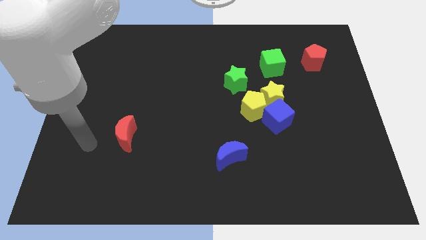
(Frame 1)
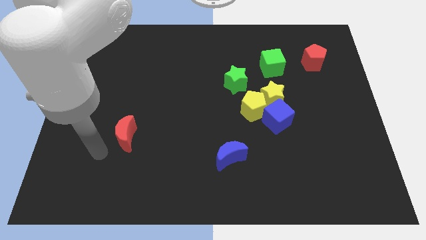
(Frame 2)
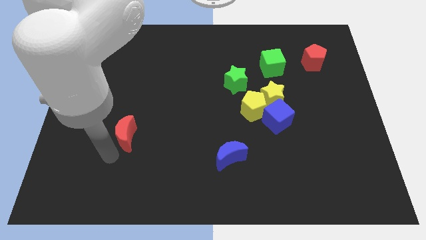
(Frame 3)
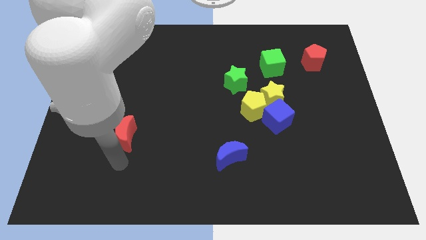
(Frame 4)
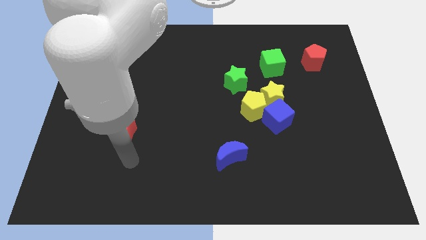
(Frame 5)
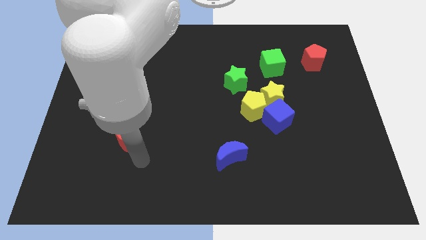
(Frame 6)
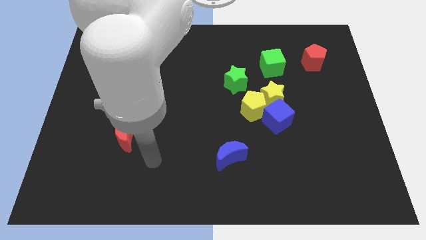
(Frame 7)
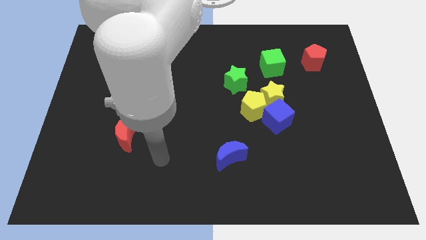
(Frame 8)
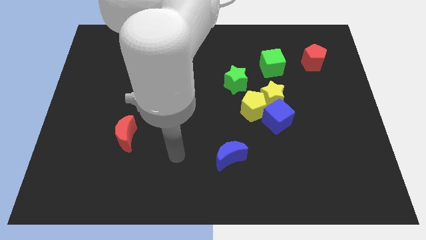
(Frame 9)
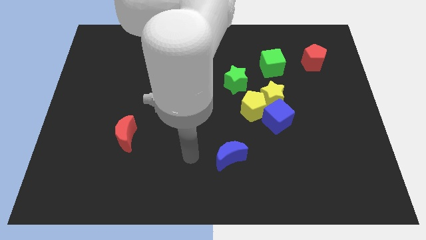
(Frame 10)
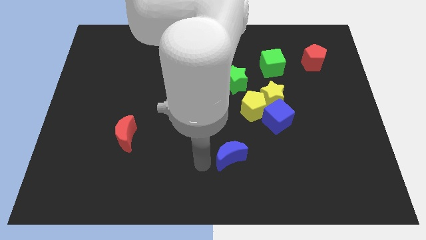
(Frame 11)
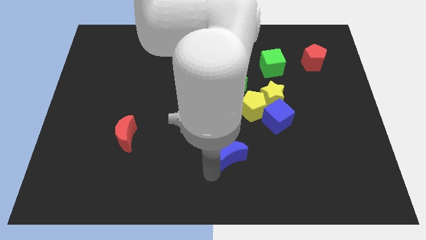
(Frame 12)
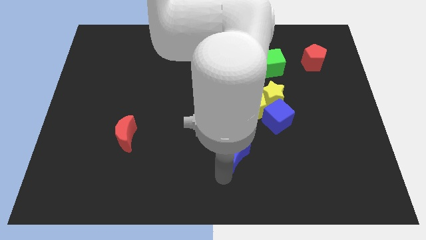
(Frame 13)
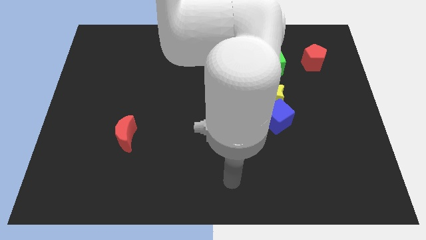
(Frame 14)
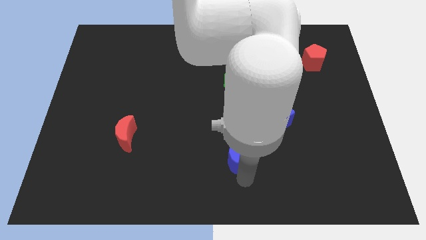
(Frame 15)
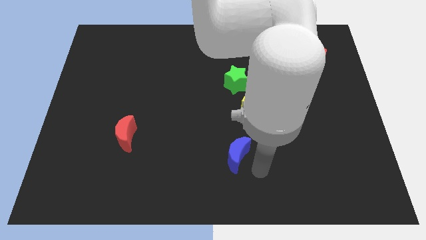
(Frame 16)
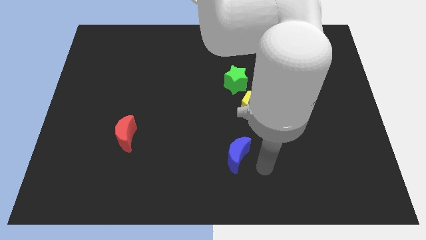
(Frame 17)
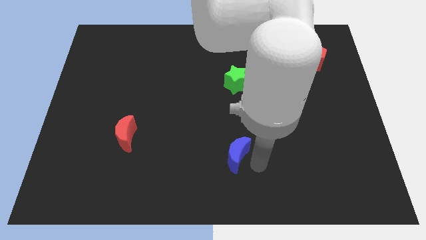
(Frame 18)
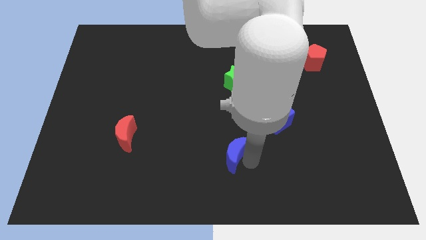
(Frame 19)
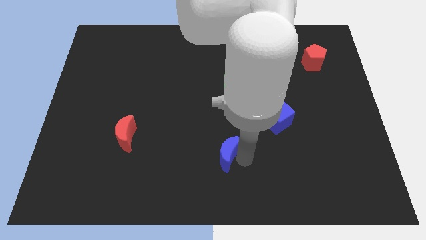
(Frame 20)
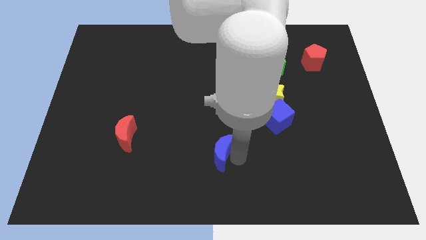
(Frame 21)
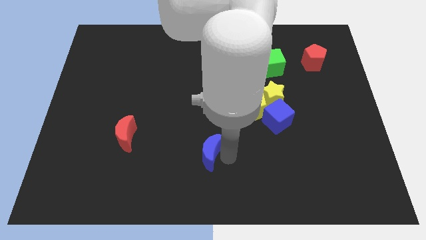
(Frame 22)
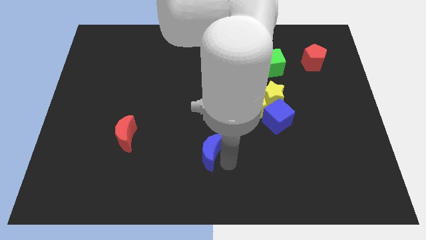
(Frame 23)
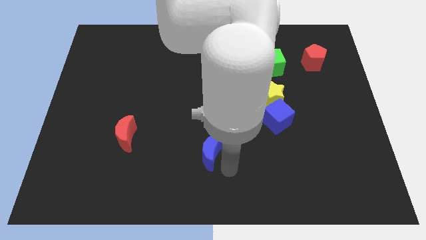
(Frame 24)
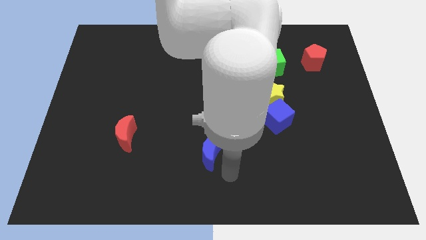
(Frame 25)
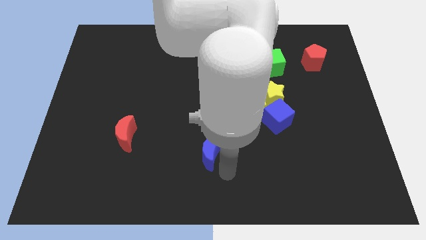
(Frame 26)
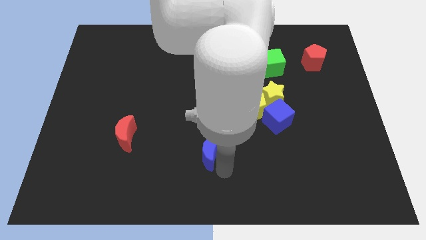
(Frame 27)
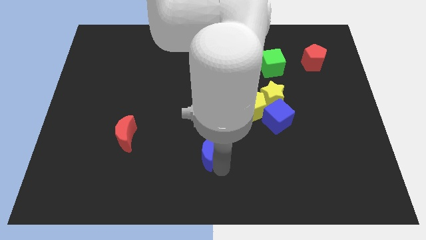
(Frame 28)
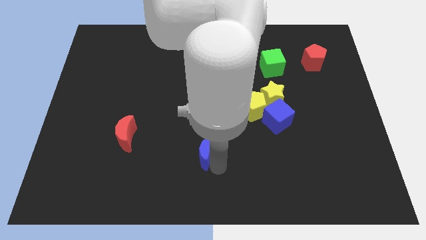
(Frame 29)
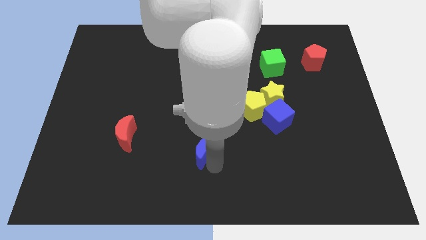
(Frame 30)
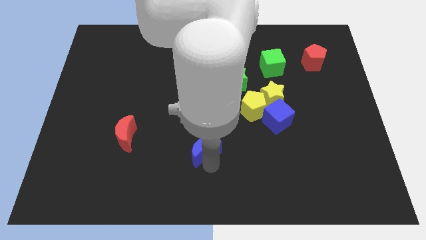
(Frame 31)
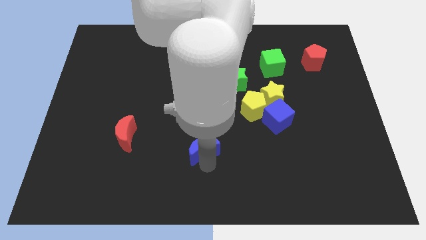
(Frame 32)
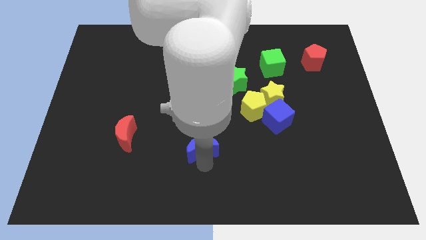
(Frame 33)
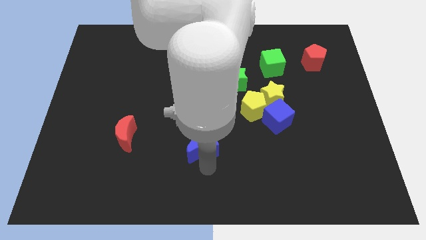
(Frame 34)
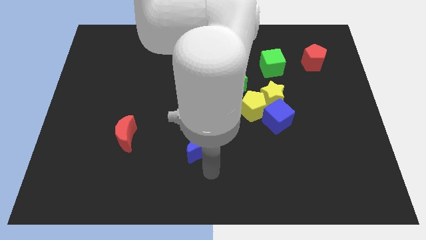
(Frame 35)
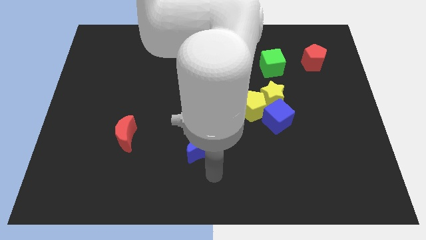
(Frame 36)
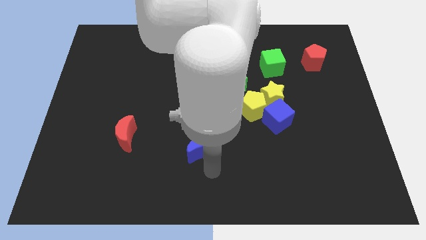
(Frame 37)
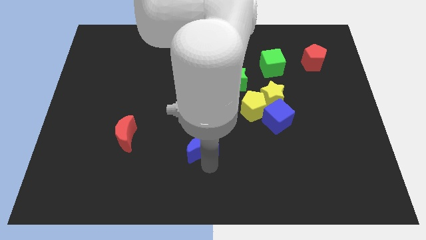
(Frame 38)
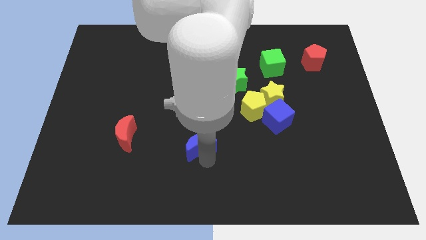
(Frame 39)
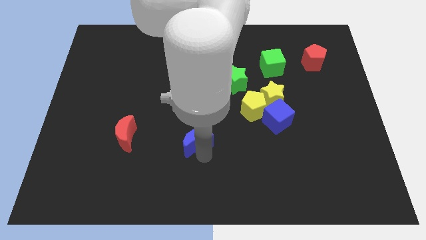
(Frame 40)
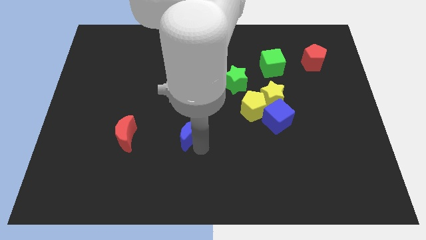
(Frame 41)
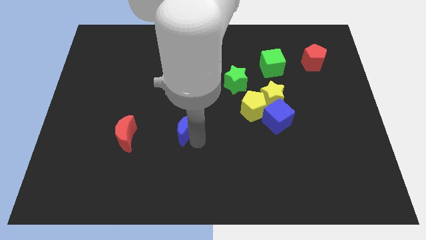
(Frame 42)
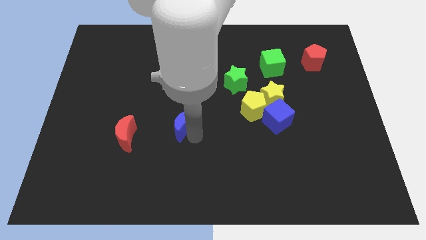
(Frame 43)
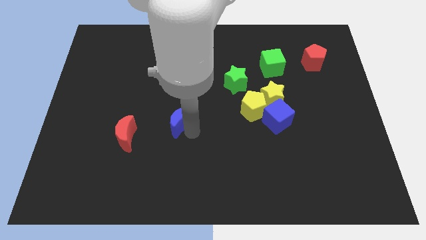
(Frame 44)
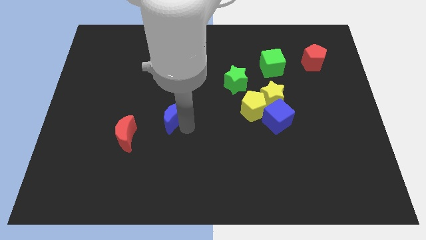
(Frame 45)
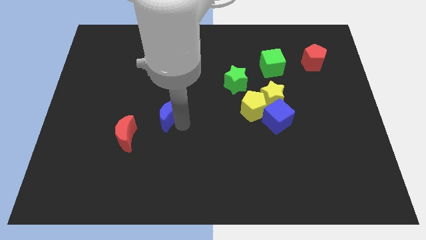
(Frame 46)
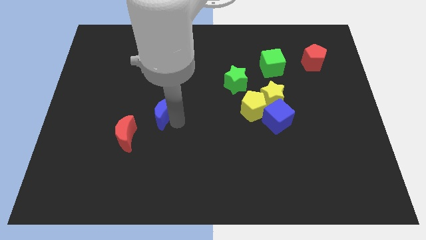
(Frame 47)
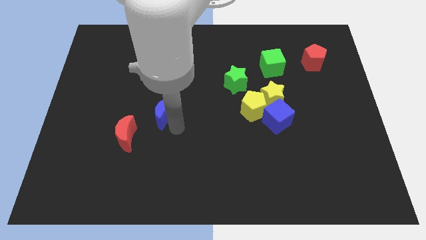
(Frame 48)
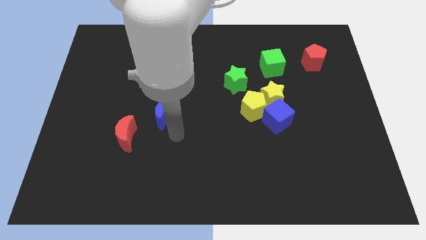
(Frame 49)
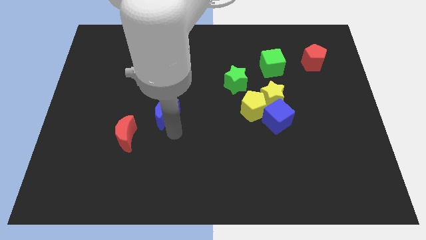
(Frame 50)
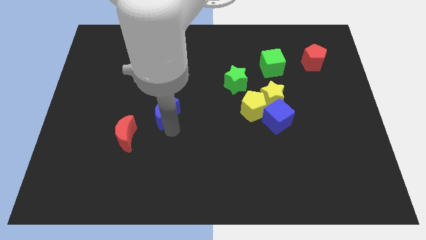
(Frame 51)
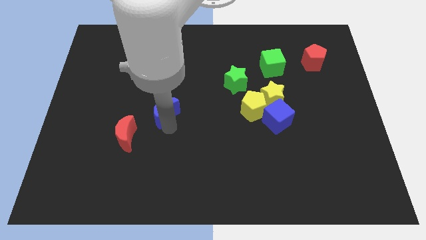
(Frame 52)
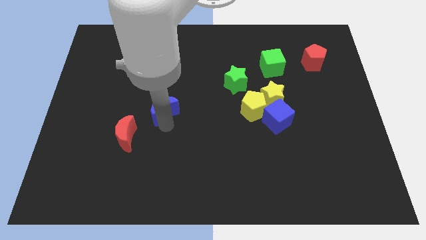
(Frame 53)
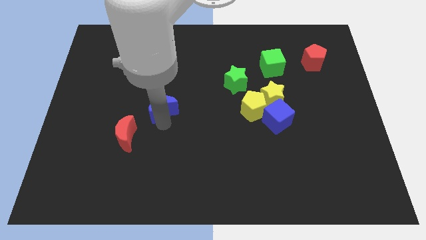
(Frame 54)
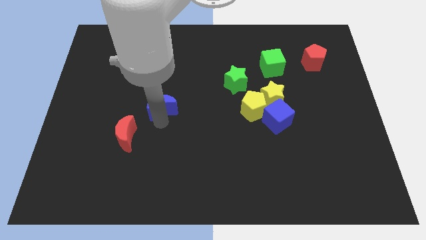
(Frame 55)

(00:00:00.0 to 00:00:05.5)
slide the blue moon up and left

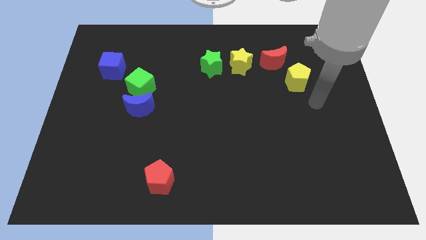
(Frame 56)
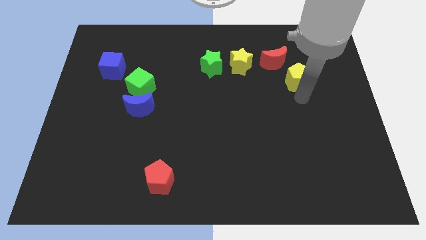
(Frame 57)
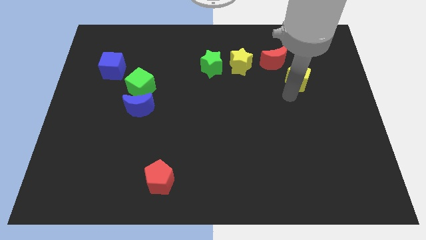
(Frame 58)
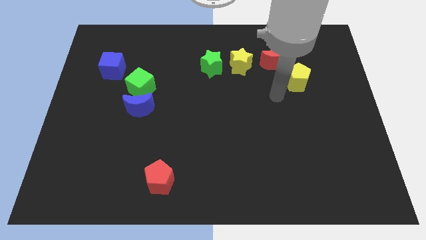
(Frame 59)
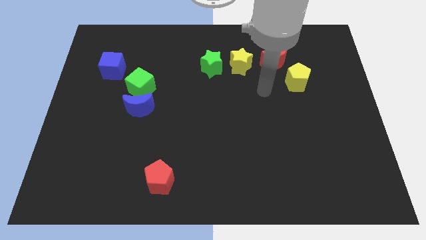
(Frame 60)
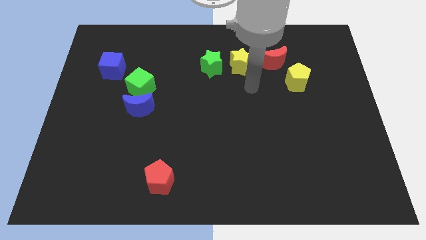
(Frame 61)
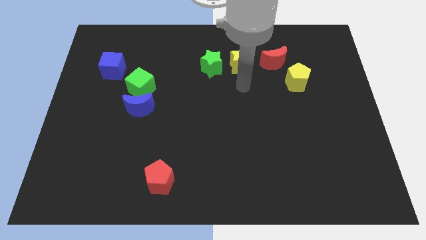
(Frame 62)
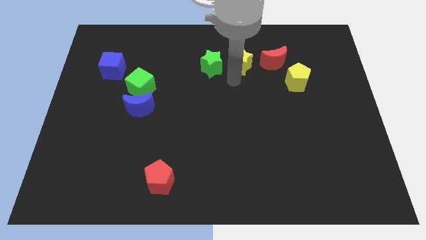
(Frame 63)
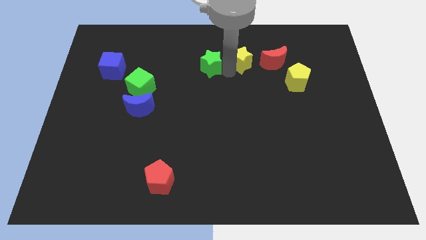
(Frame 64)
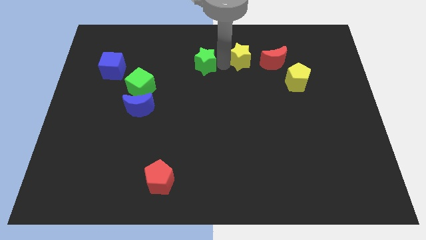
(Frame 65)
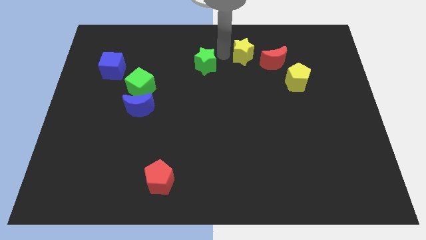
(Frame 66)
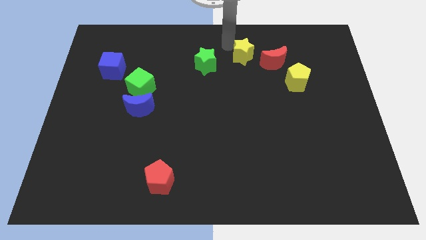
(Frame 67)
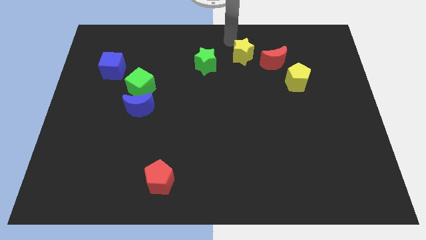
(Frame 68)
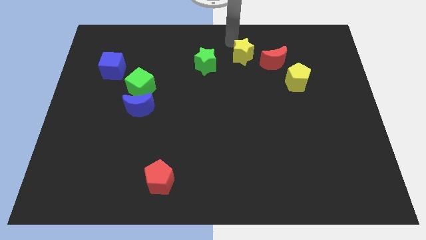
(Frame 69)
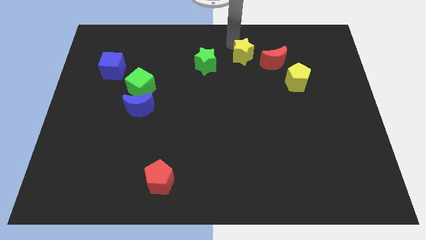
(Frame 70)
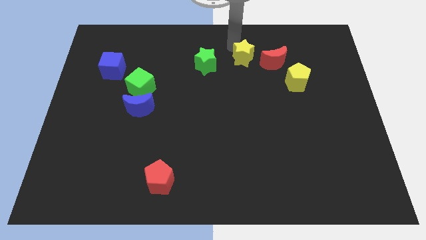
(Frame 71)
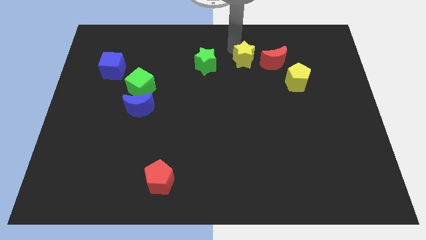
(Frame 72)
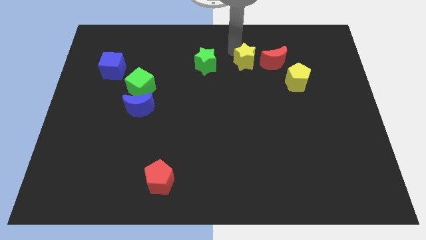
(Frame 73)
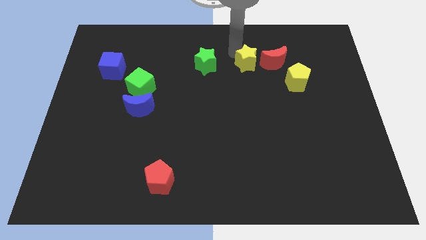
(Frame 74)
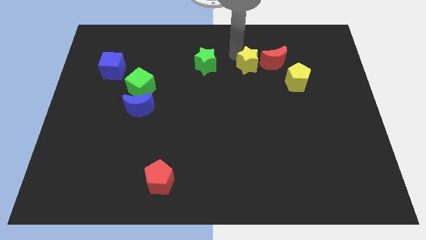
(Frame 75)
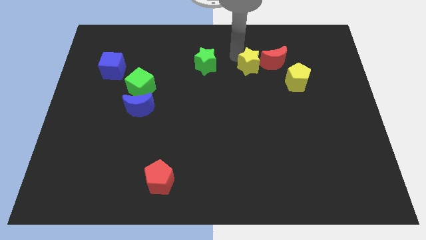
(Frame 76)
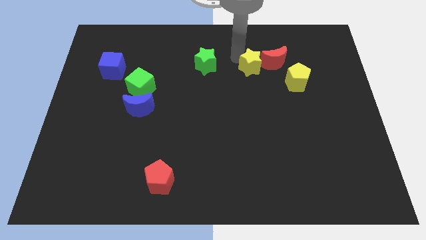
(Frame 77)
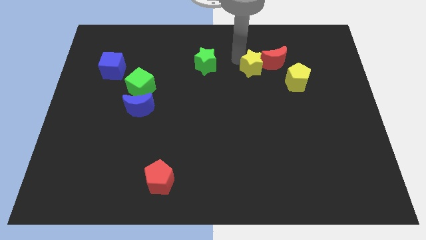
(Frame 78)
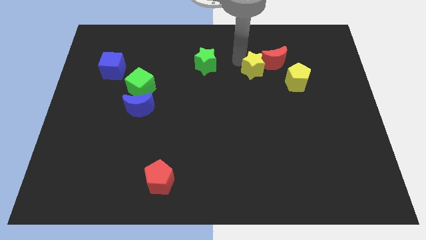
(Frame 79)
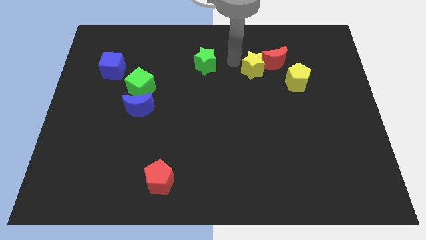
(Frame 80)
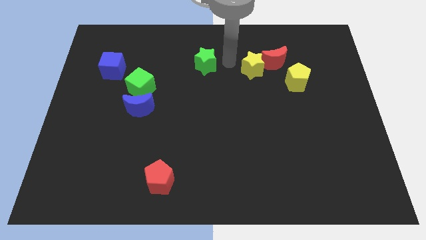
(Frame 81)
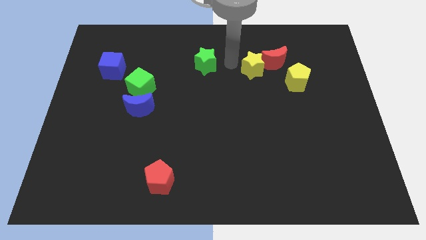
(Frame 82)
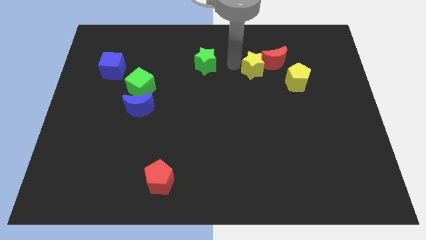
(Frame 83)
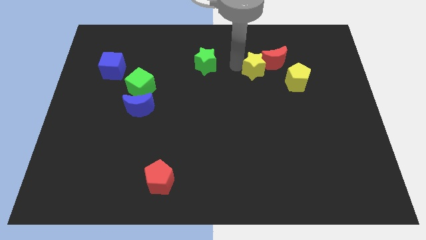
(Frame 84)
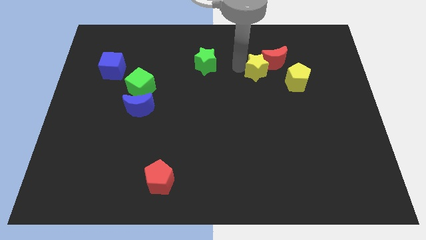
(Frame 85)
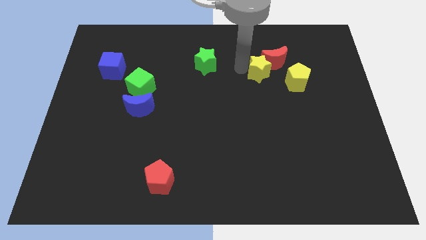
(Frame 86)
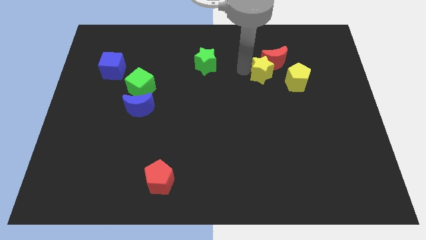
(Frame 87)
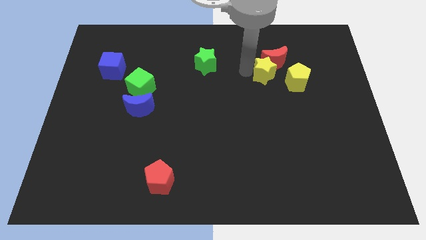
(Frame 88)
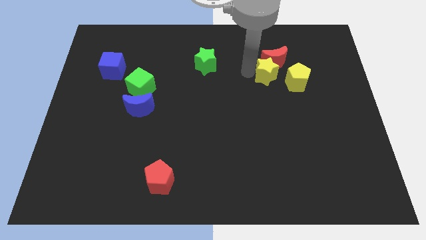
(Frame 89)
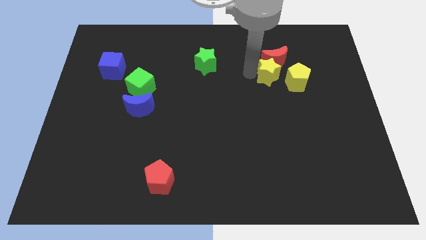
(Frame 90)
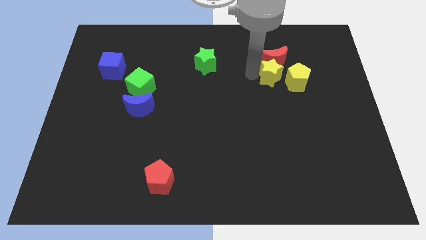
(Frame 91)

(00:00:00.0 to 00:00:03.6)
push the yellow star to the right a little bit
